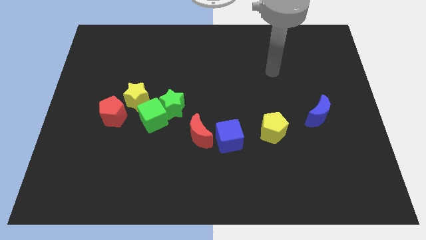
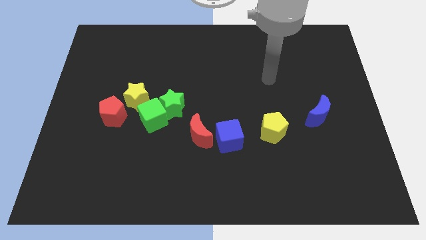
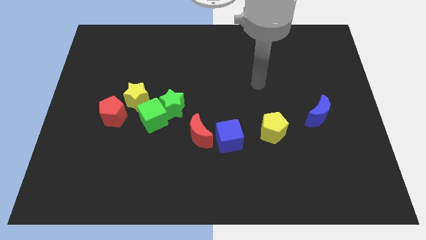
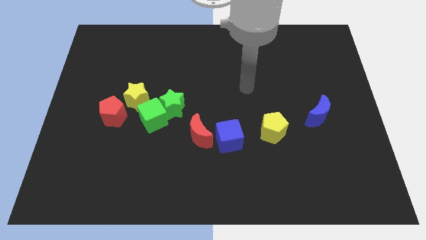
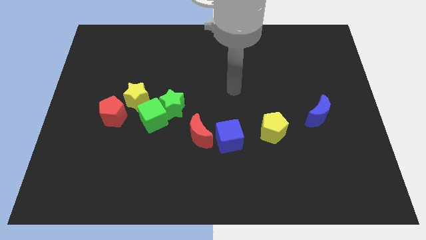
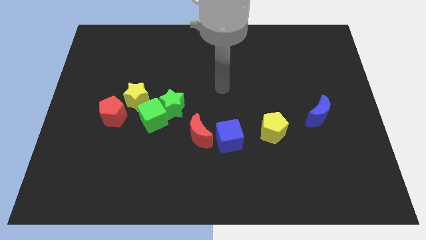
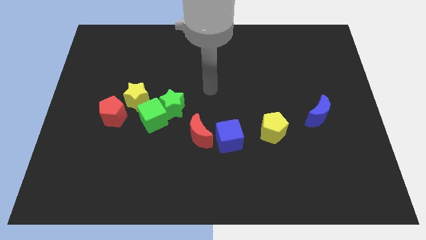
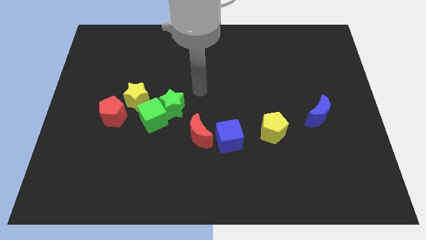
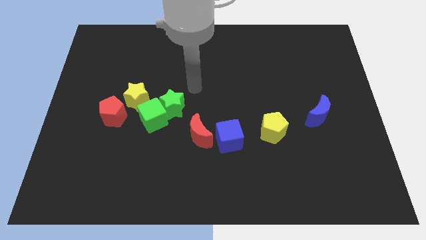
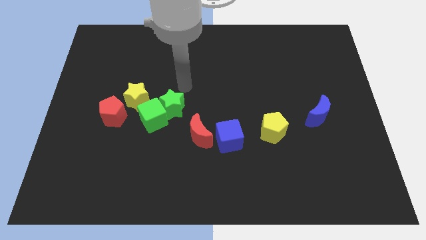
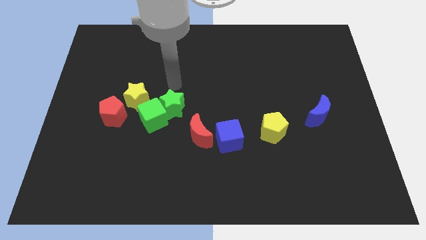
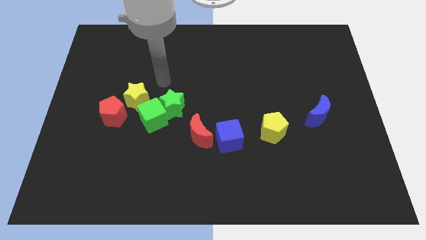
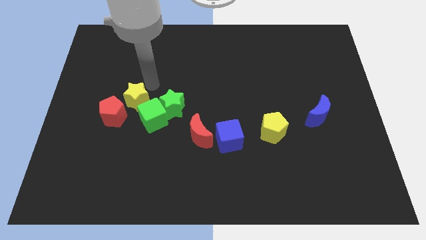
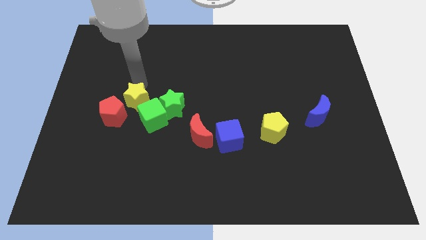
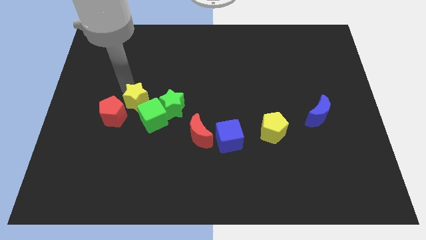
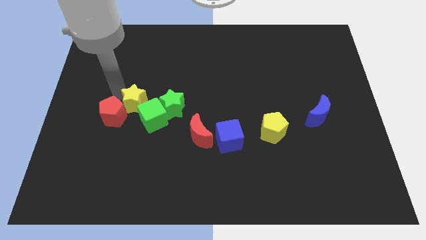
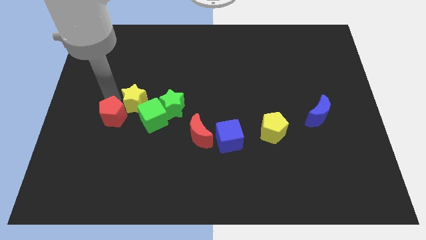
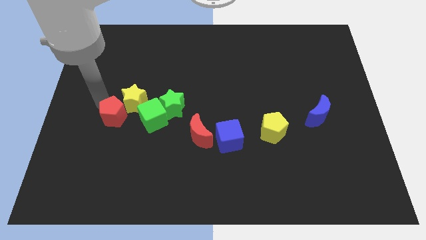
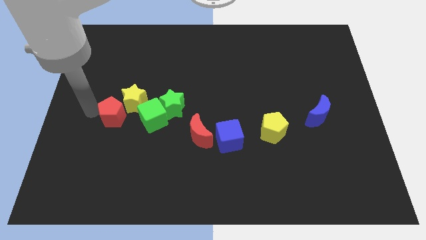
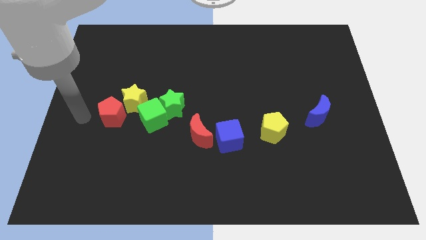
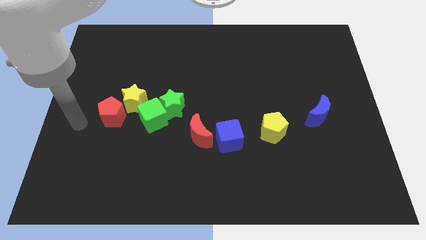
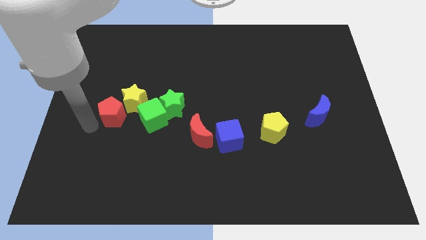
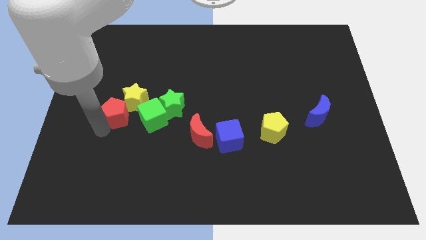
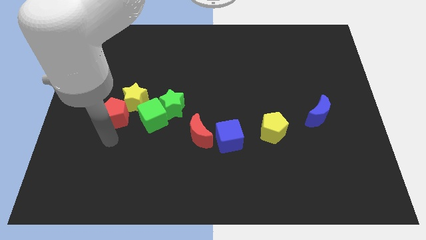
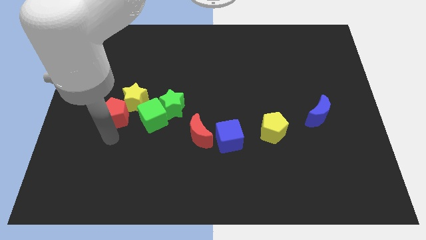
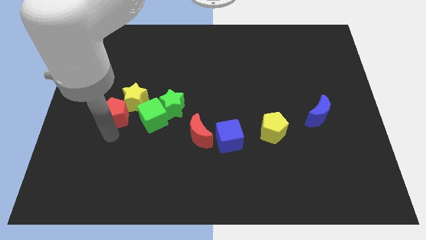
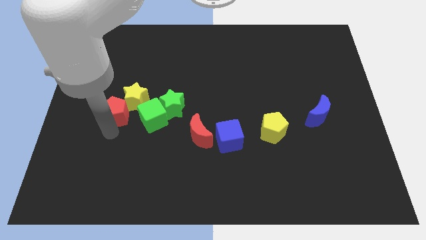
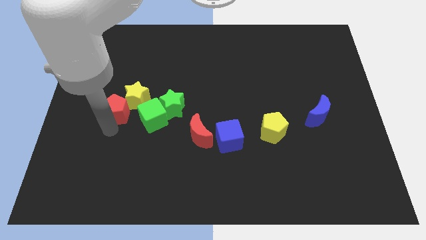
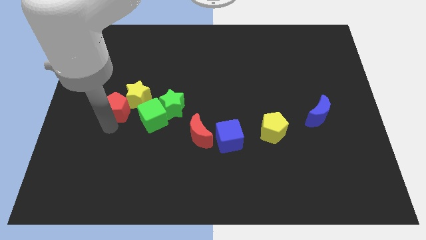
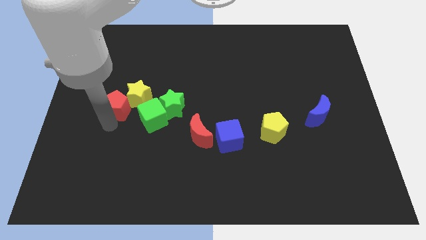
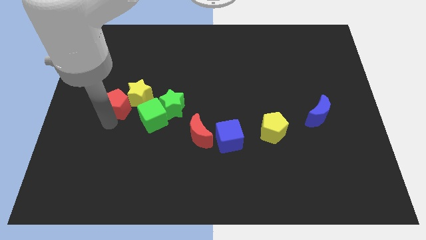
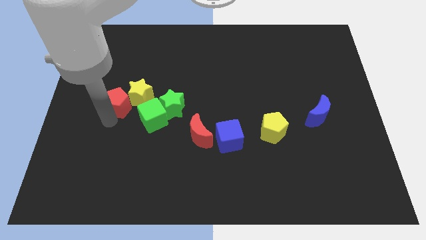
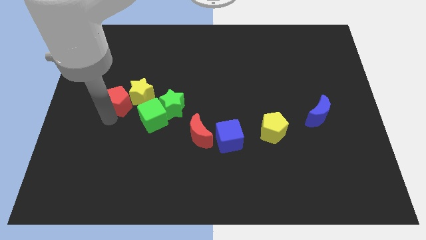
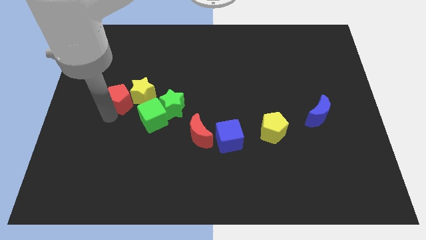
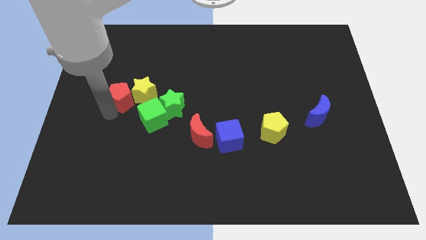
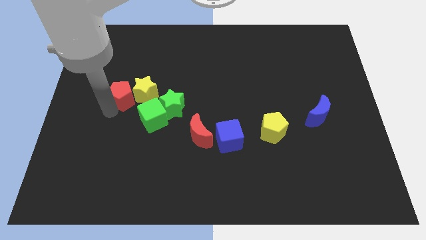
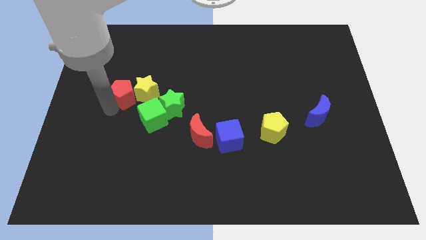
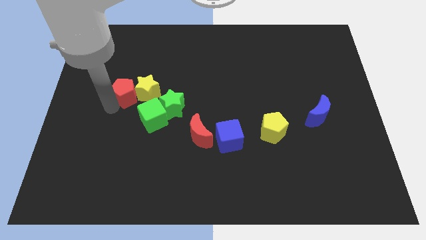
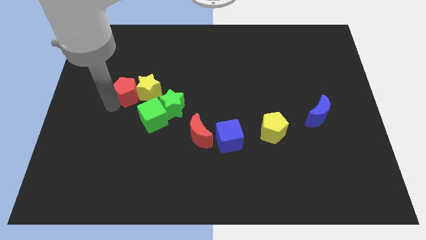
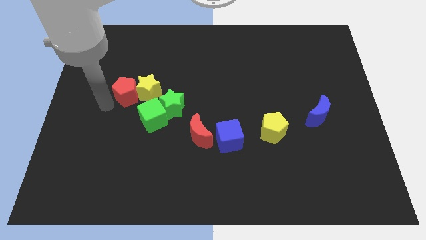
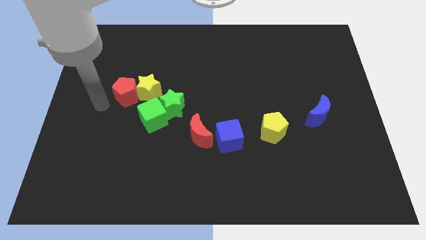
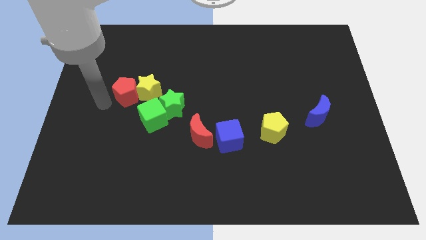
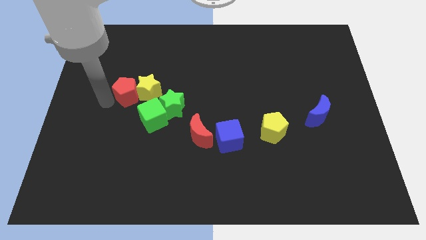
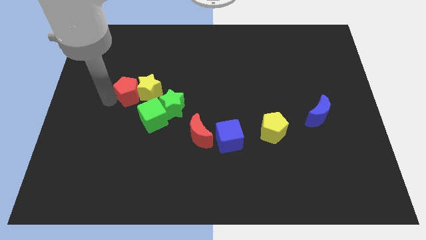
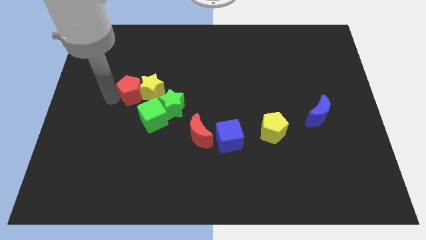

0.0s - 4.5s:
slightly push the red pentagon up and right diagonally

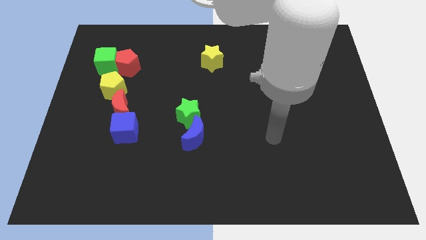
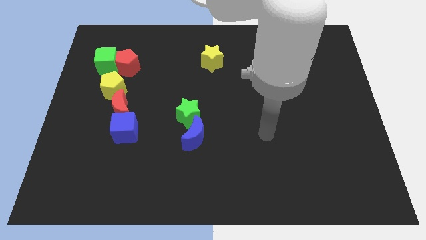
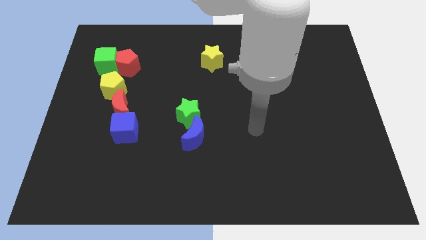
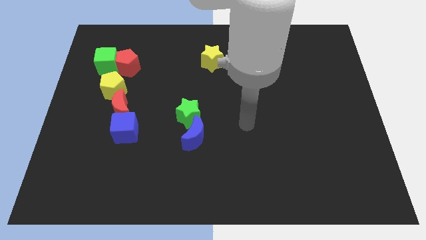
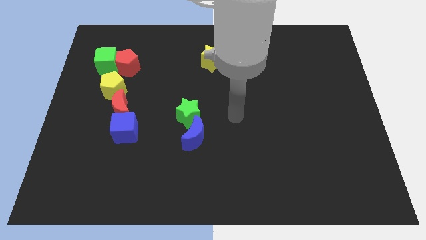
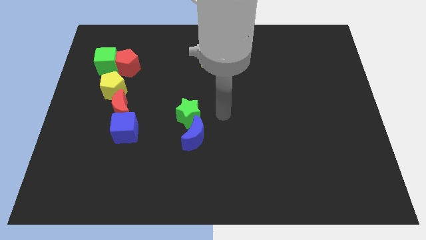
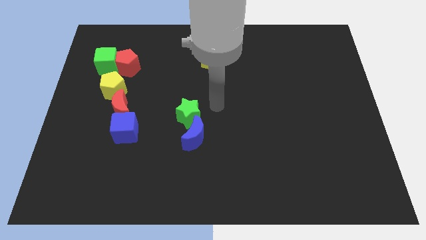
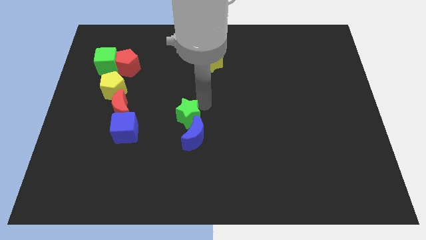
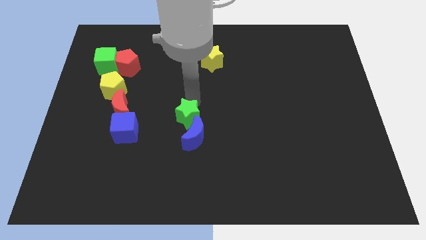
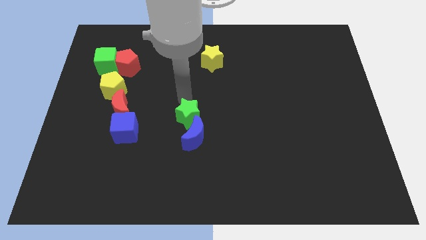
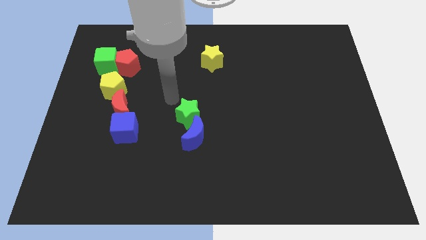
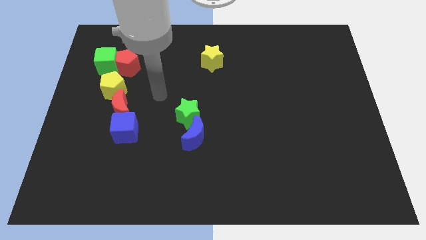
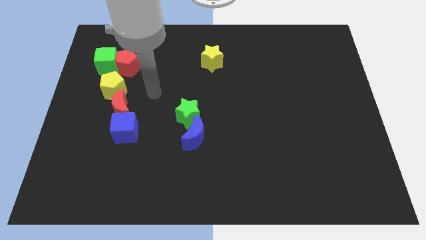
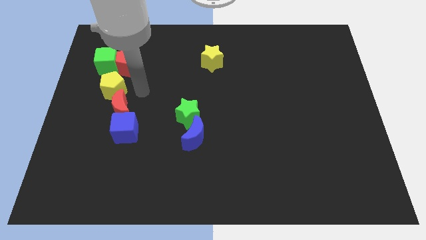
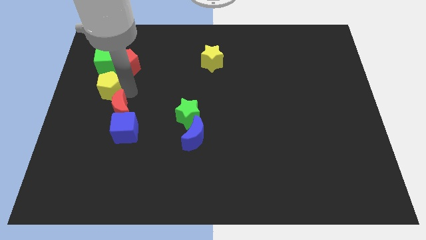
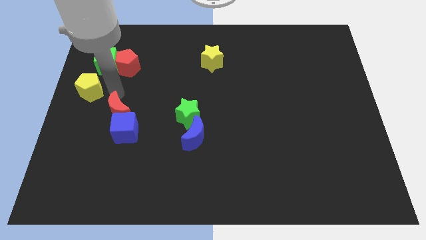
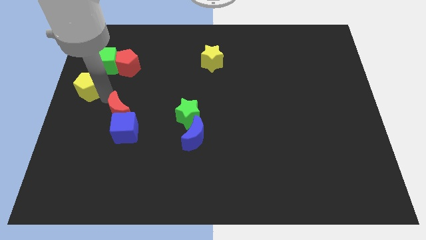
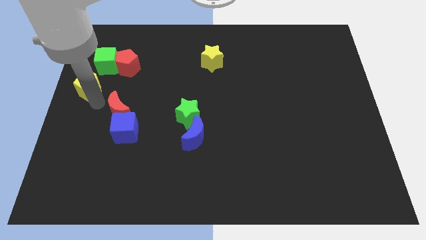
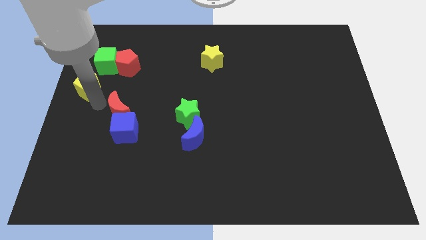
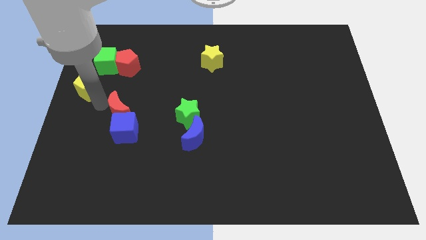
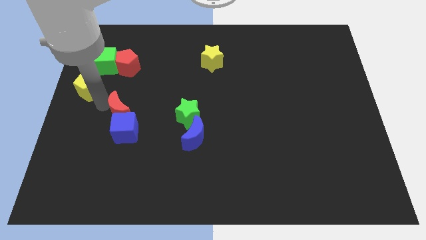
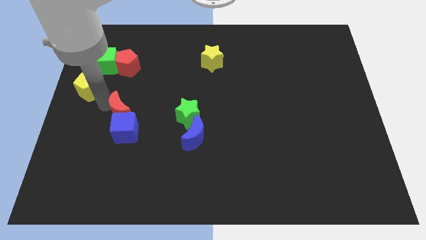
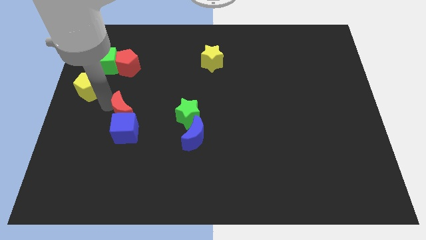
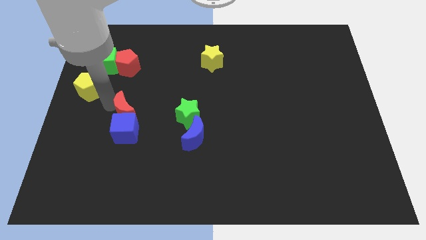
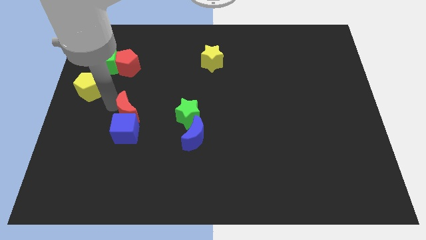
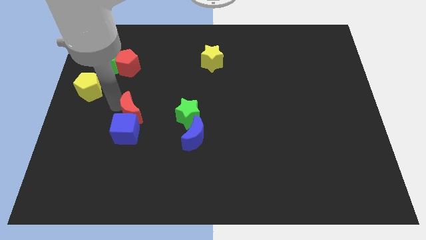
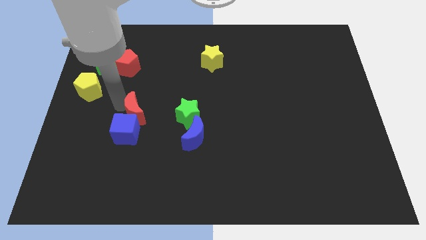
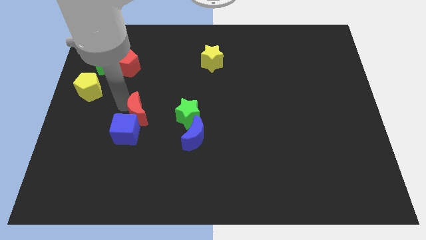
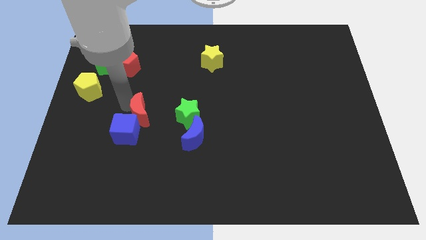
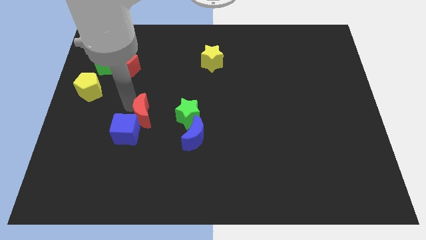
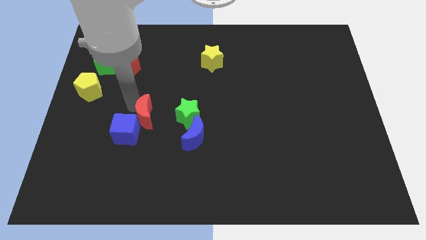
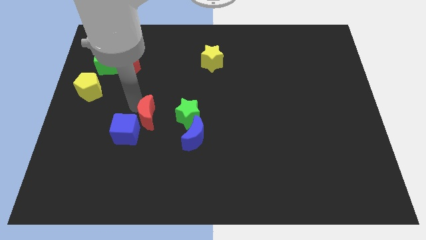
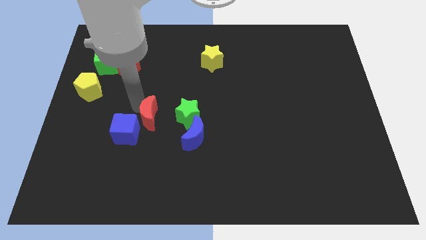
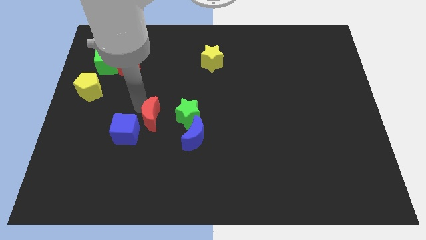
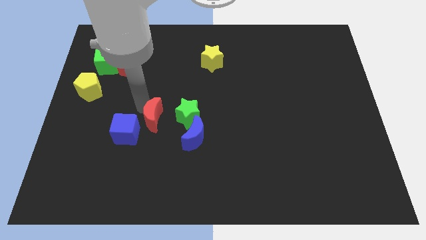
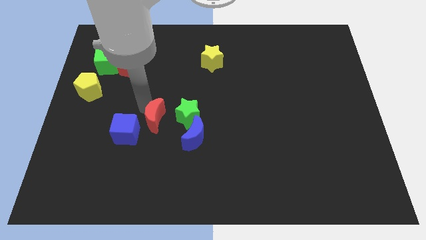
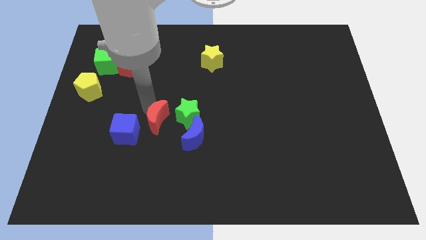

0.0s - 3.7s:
push the red moon slightly downwards and then right
